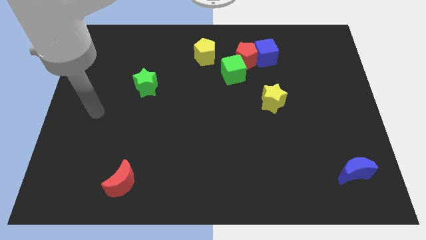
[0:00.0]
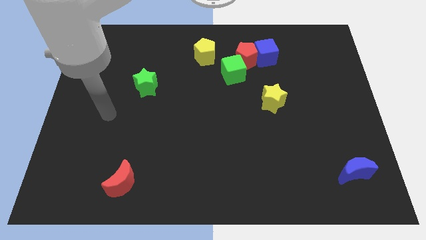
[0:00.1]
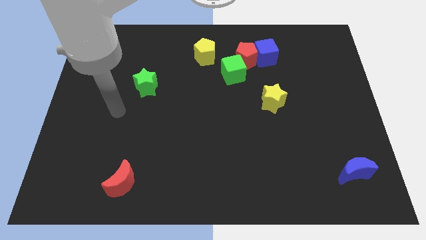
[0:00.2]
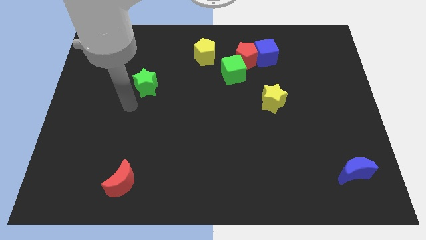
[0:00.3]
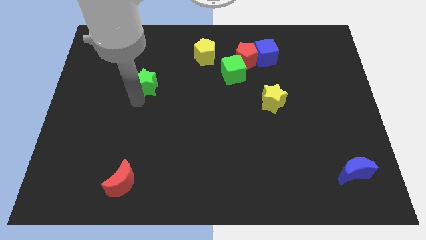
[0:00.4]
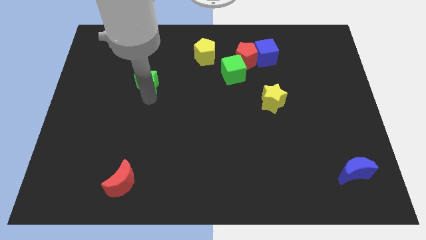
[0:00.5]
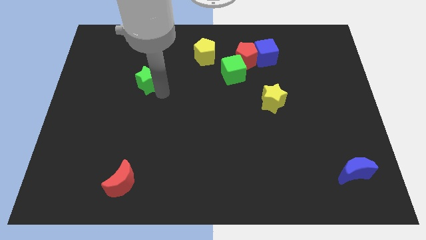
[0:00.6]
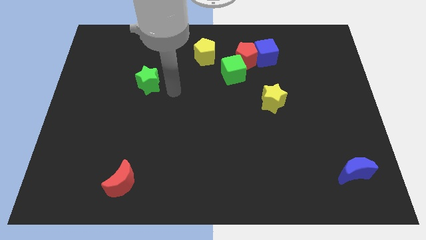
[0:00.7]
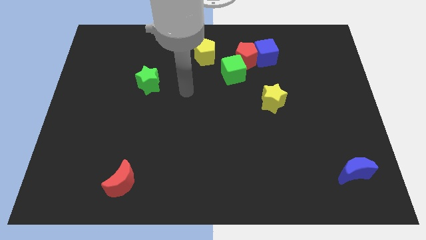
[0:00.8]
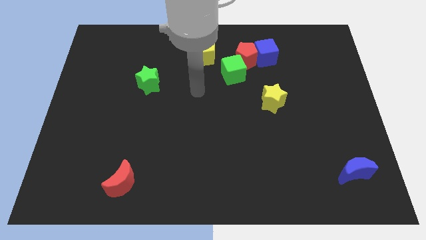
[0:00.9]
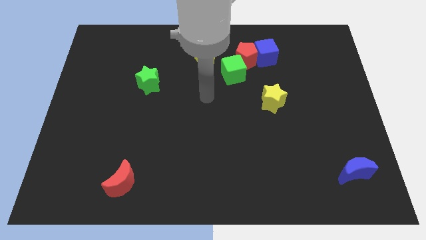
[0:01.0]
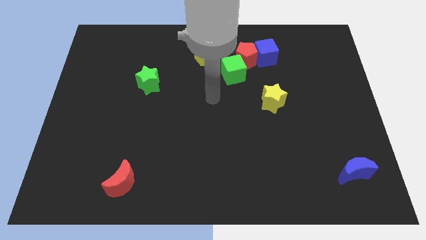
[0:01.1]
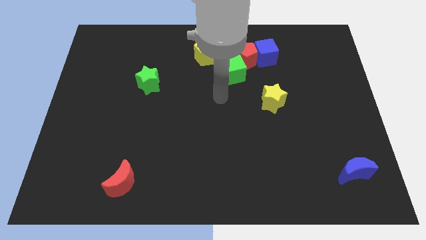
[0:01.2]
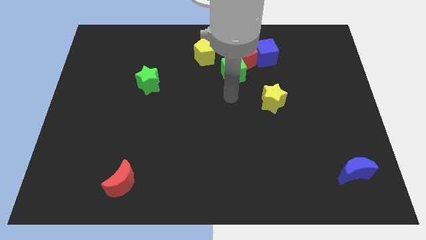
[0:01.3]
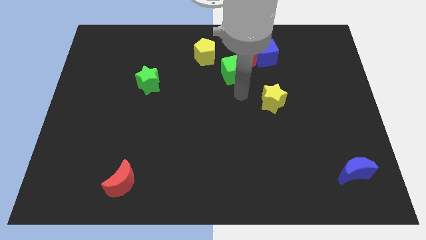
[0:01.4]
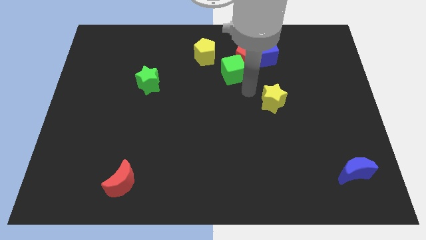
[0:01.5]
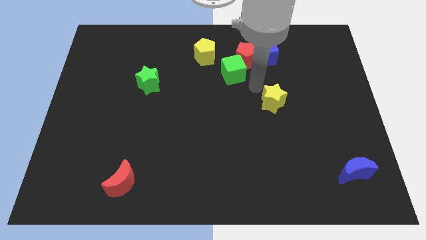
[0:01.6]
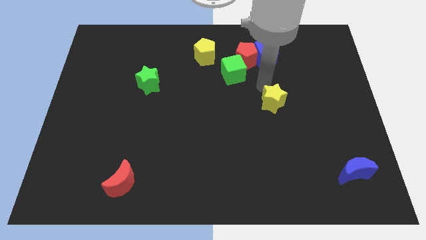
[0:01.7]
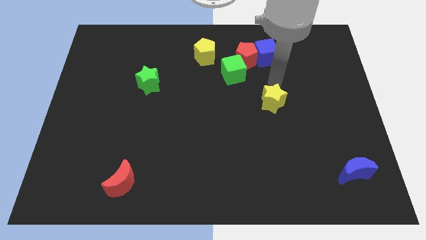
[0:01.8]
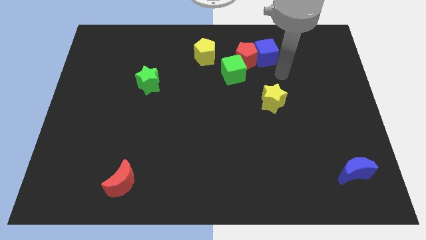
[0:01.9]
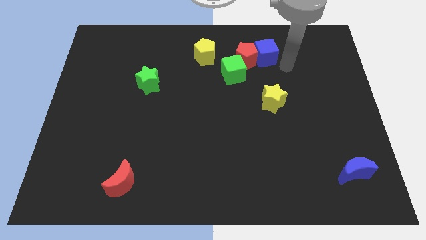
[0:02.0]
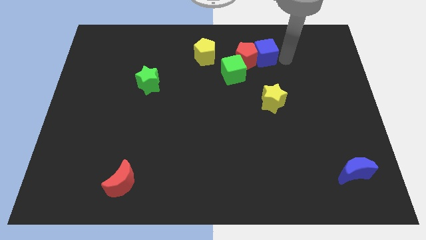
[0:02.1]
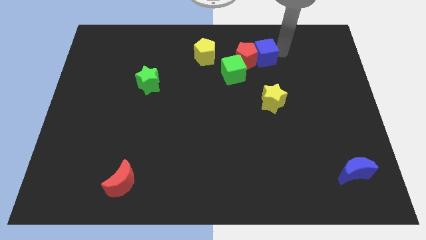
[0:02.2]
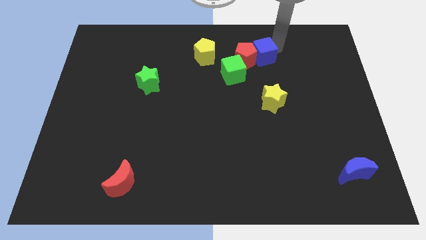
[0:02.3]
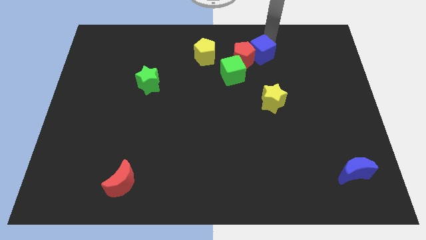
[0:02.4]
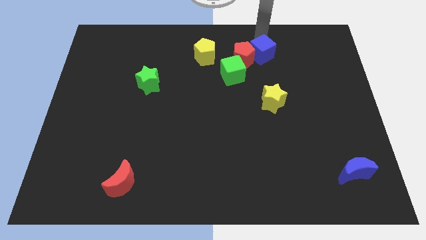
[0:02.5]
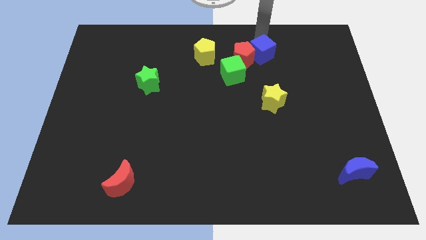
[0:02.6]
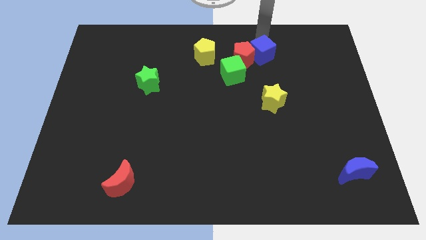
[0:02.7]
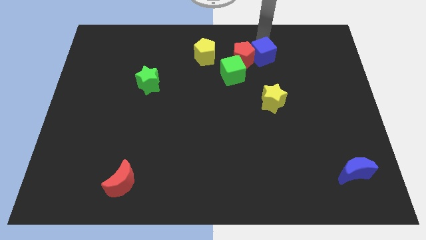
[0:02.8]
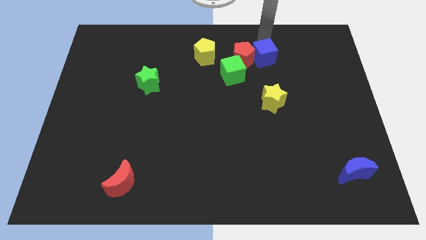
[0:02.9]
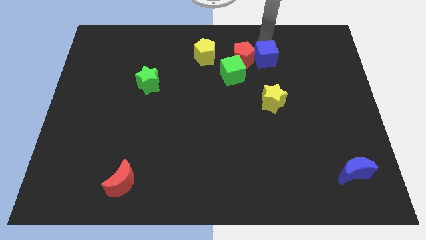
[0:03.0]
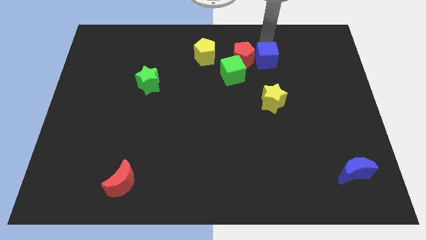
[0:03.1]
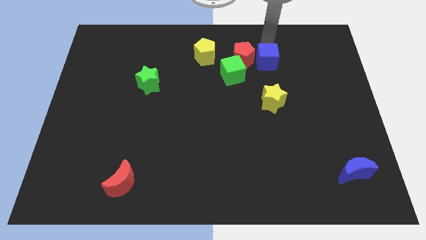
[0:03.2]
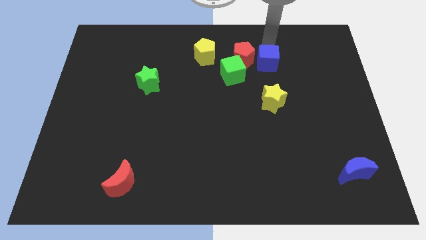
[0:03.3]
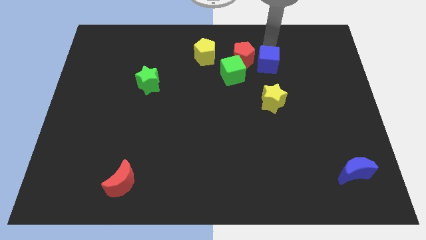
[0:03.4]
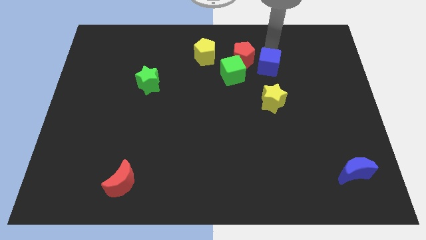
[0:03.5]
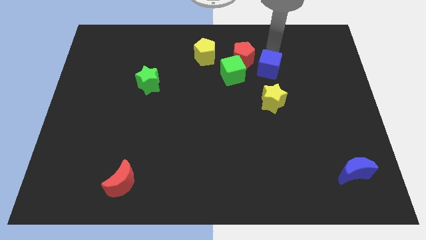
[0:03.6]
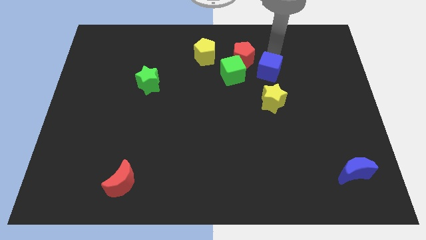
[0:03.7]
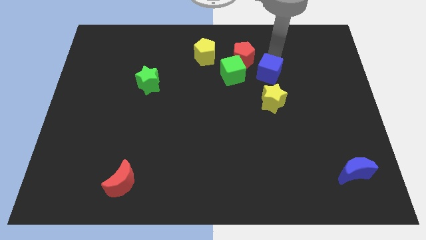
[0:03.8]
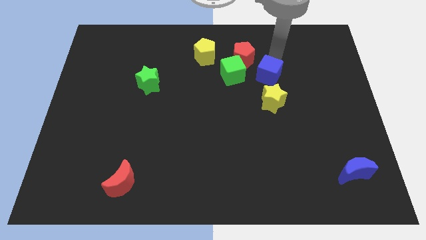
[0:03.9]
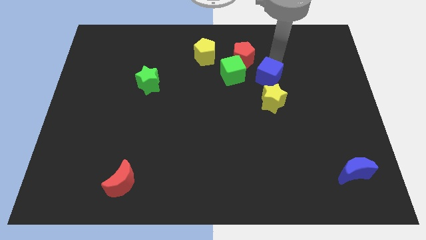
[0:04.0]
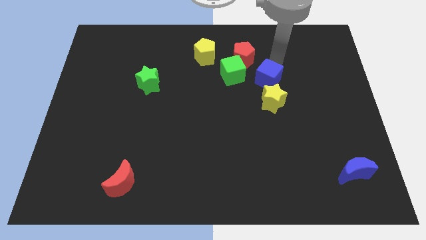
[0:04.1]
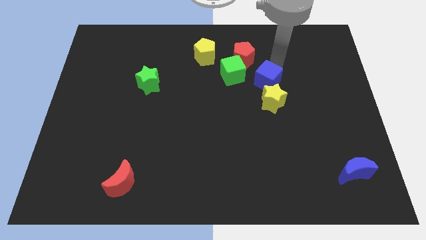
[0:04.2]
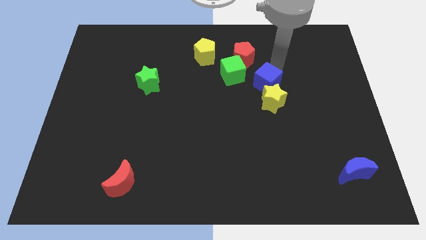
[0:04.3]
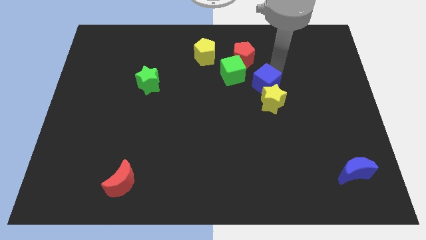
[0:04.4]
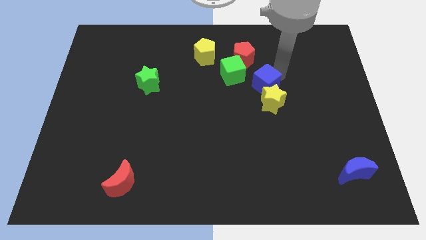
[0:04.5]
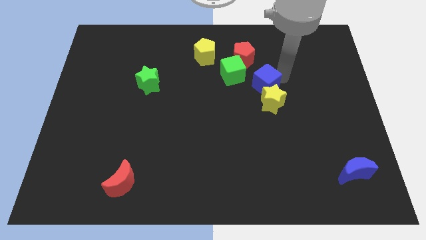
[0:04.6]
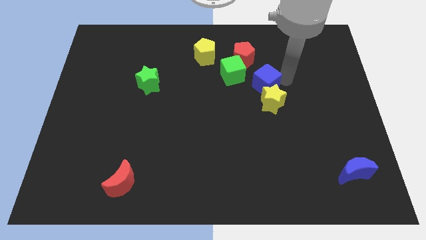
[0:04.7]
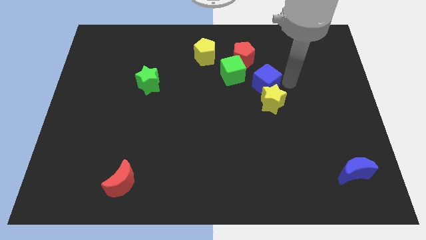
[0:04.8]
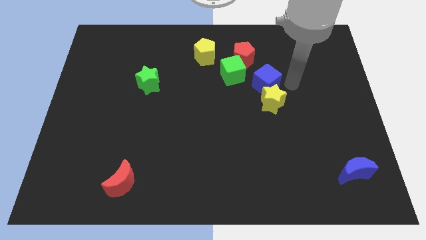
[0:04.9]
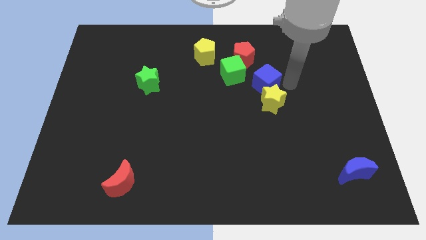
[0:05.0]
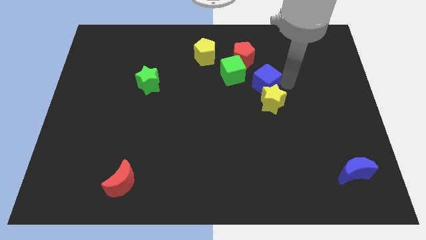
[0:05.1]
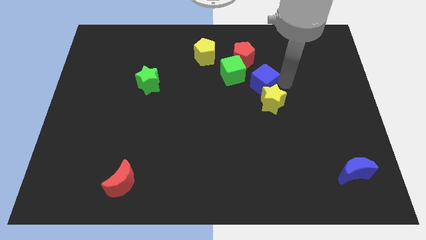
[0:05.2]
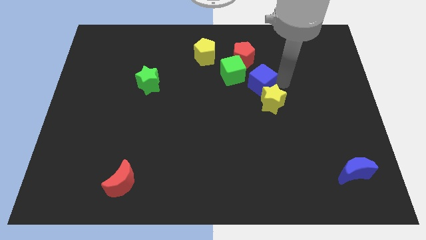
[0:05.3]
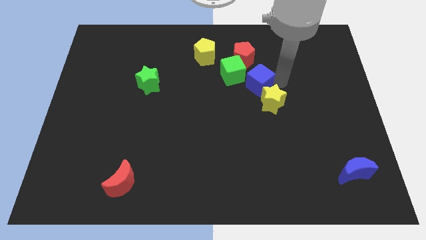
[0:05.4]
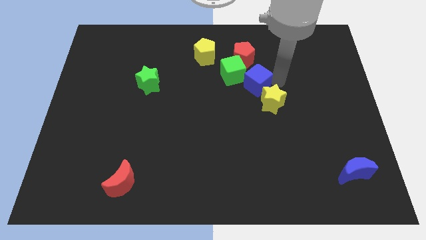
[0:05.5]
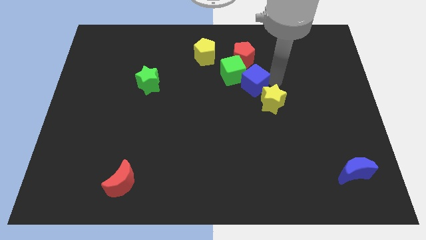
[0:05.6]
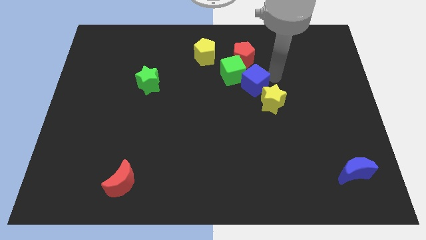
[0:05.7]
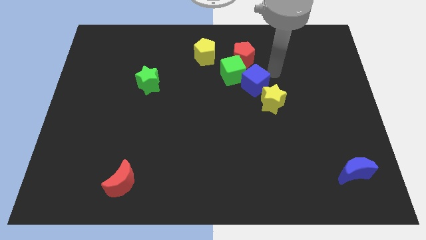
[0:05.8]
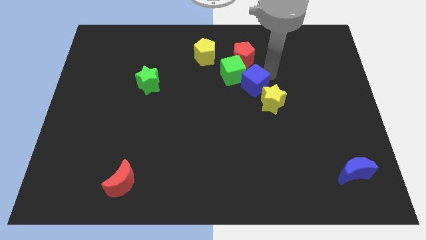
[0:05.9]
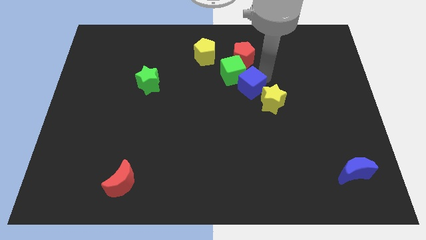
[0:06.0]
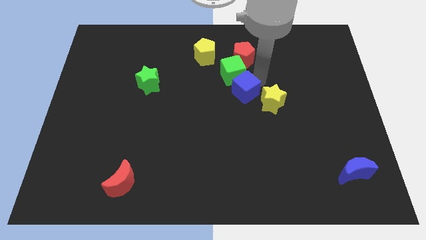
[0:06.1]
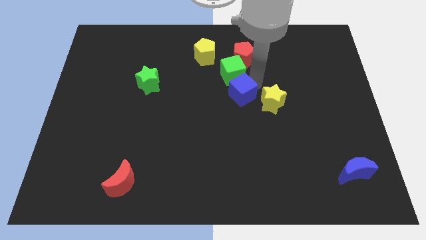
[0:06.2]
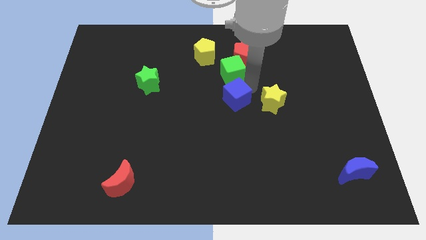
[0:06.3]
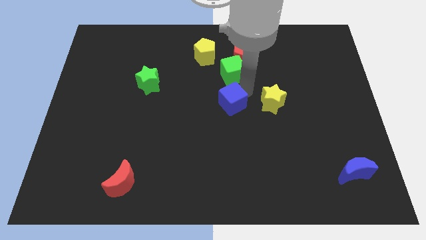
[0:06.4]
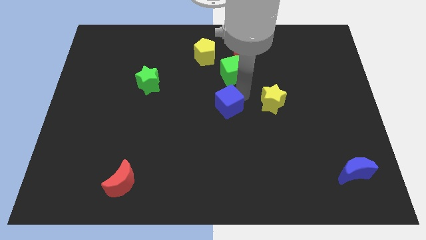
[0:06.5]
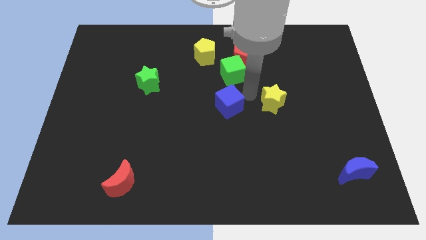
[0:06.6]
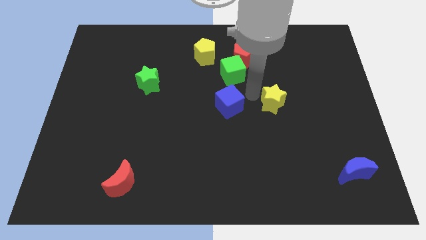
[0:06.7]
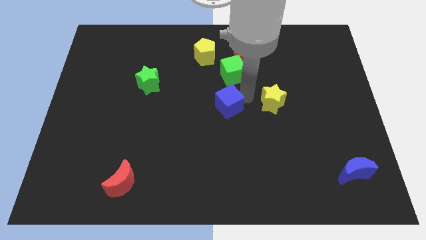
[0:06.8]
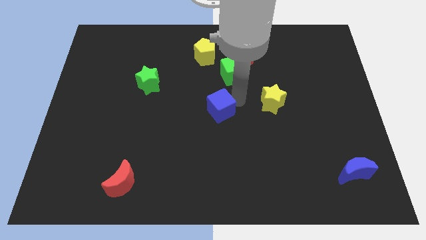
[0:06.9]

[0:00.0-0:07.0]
move the blue cube downwards and to the left diagonally

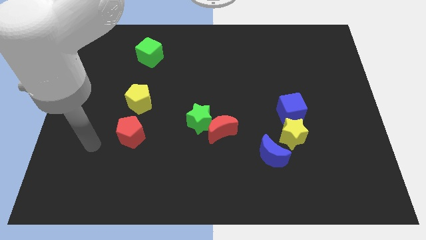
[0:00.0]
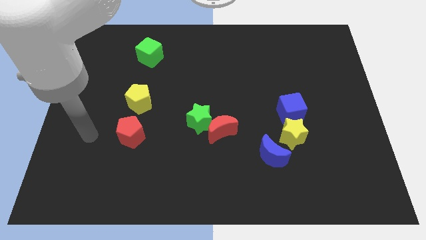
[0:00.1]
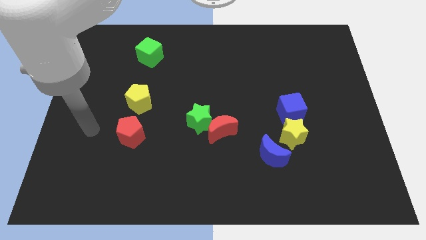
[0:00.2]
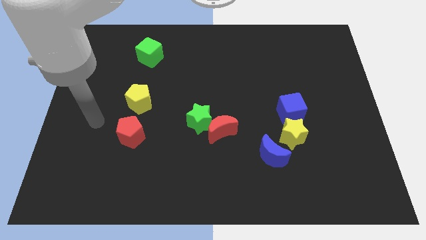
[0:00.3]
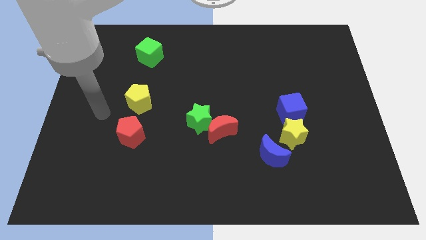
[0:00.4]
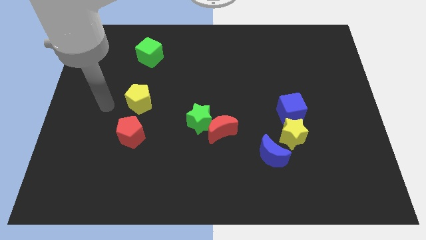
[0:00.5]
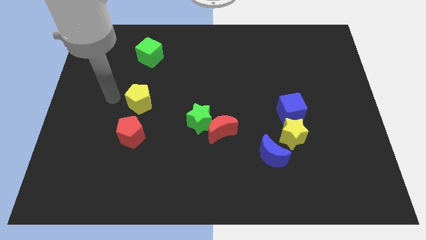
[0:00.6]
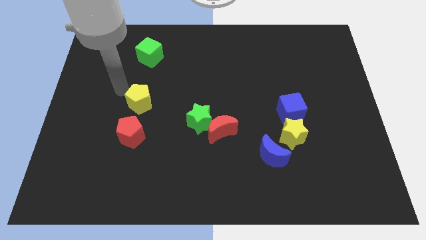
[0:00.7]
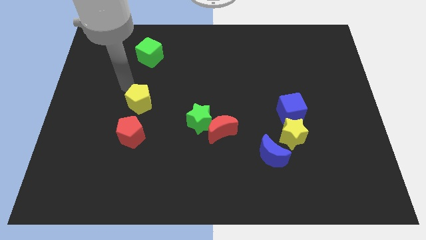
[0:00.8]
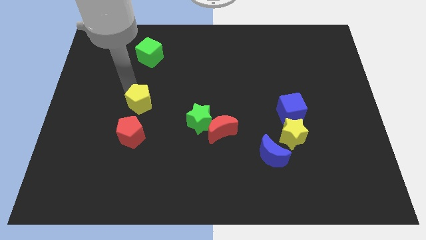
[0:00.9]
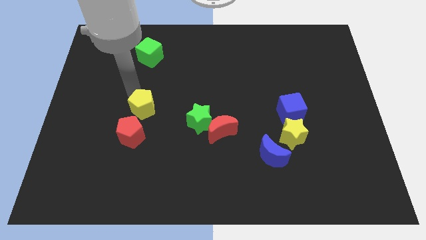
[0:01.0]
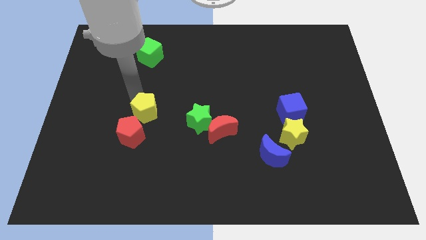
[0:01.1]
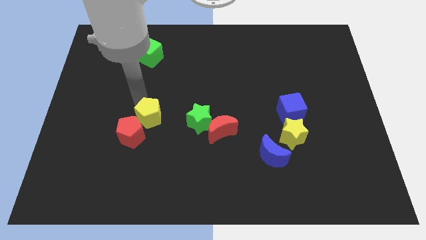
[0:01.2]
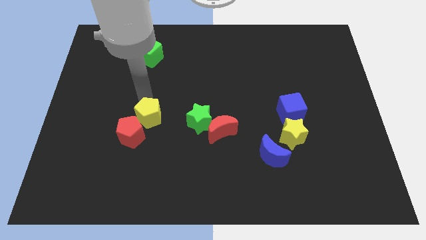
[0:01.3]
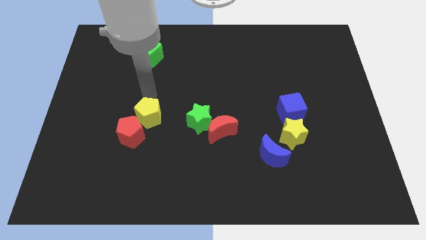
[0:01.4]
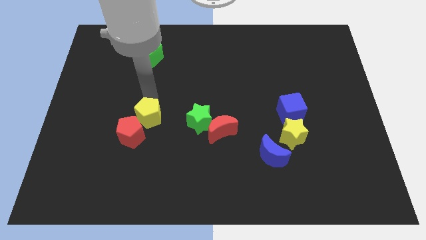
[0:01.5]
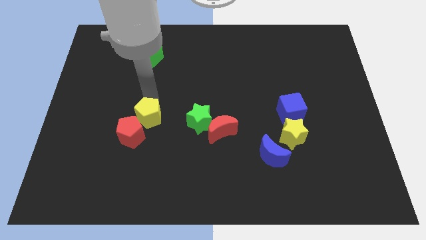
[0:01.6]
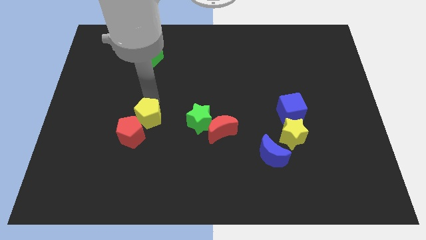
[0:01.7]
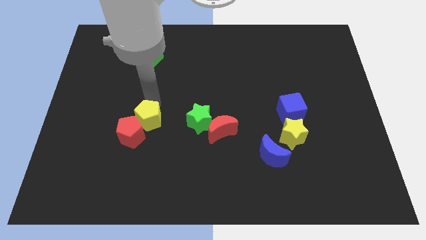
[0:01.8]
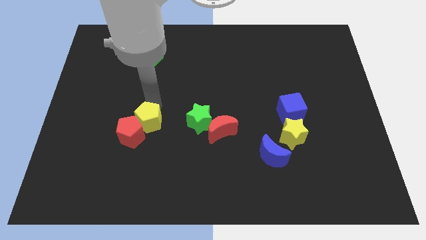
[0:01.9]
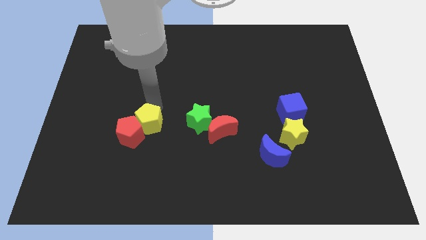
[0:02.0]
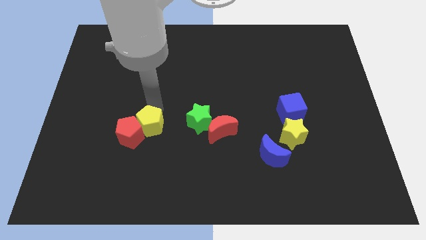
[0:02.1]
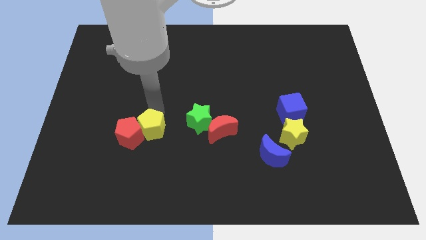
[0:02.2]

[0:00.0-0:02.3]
push the yellow pentagon somewhat down
